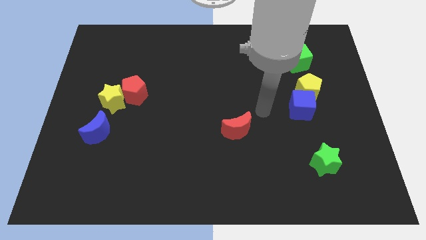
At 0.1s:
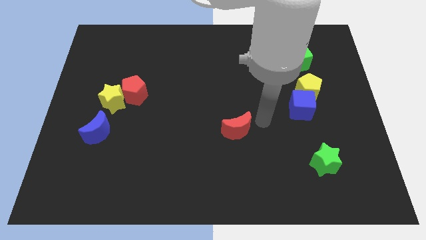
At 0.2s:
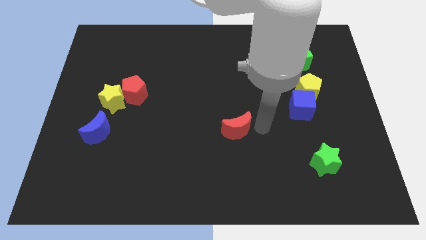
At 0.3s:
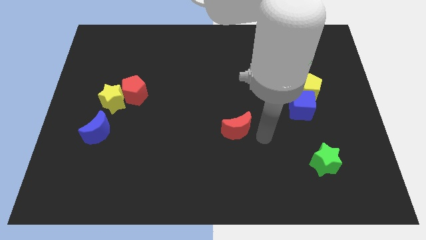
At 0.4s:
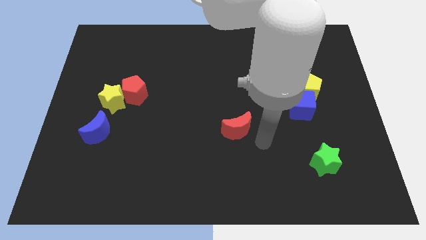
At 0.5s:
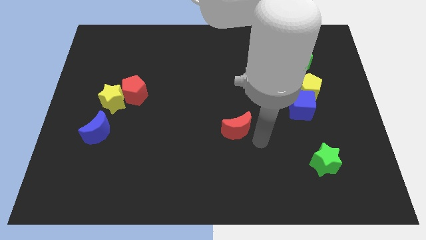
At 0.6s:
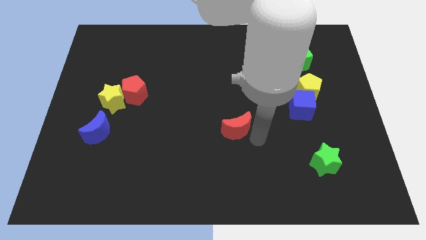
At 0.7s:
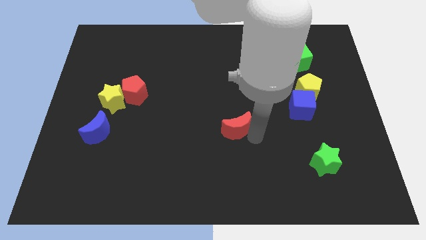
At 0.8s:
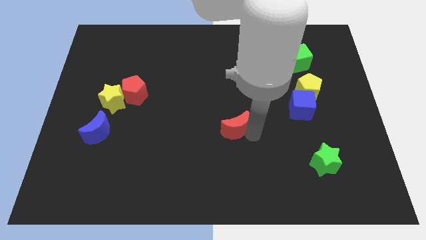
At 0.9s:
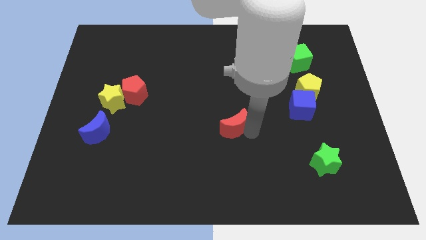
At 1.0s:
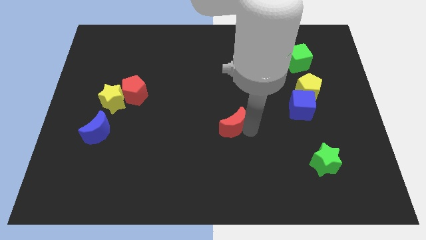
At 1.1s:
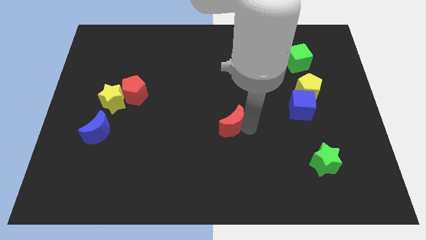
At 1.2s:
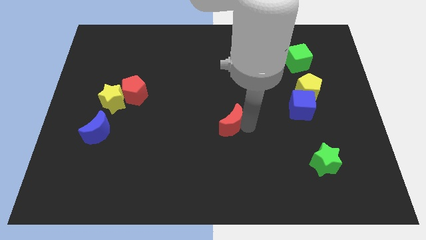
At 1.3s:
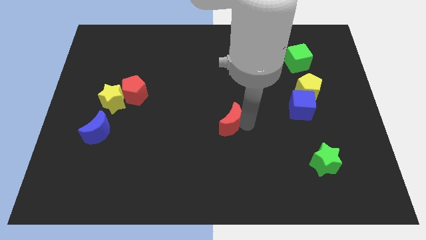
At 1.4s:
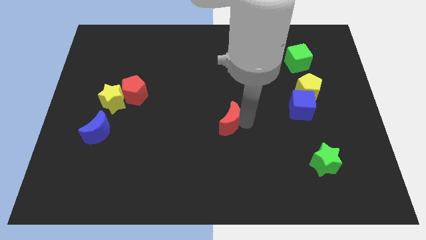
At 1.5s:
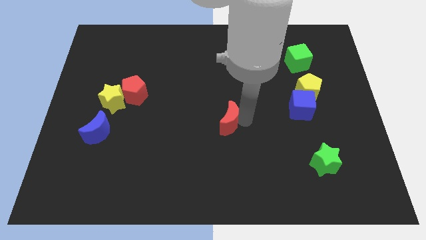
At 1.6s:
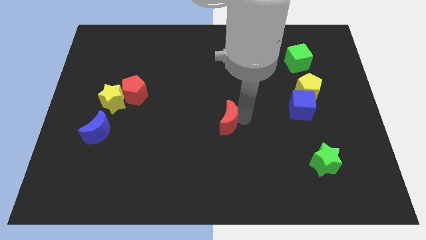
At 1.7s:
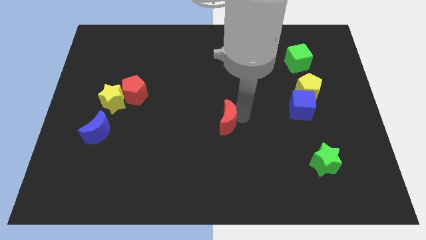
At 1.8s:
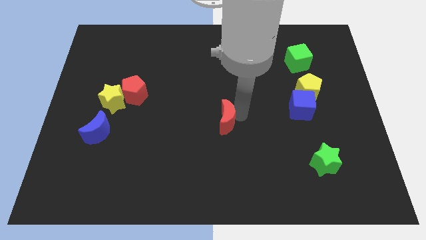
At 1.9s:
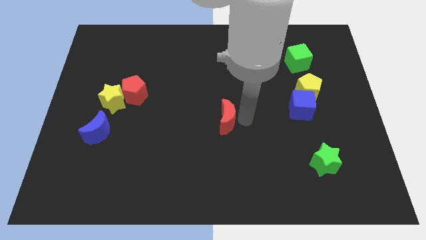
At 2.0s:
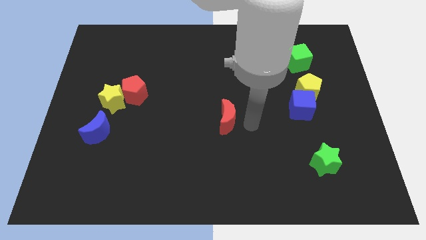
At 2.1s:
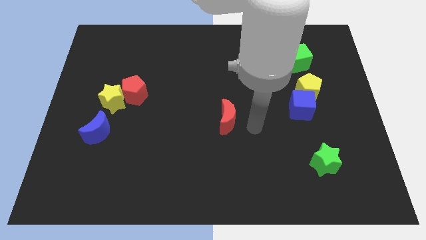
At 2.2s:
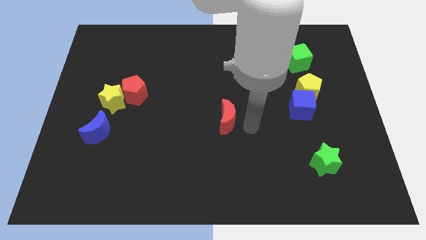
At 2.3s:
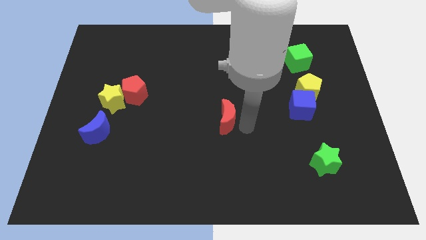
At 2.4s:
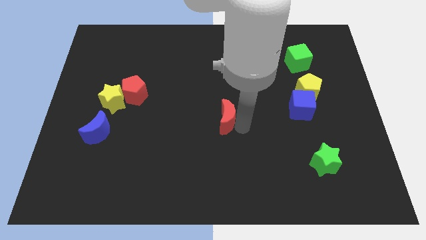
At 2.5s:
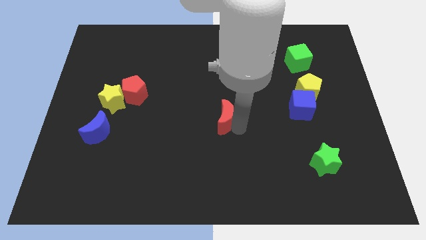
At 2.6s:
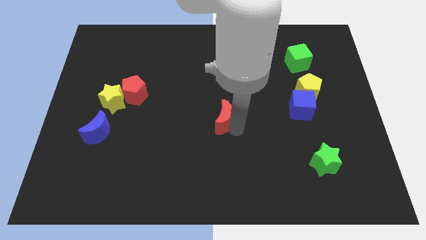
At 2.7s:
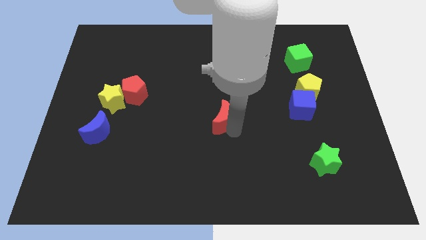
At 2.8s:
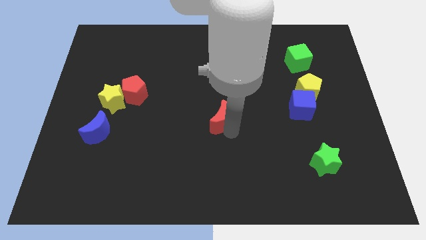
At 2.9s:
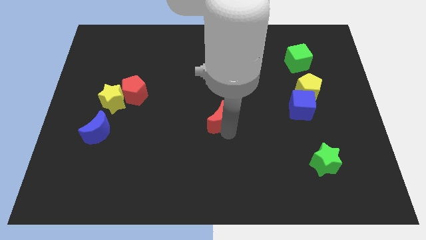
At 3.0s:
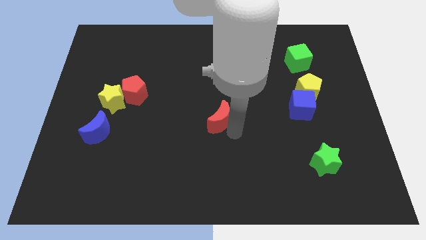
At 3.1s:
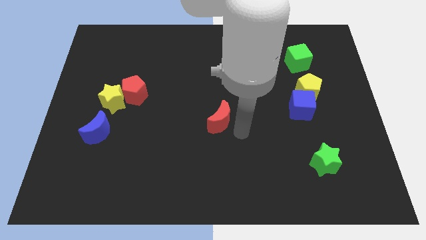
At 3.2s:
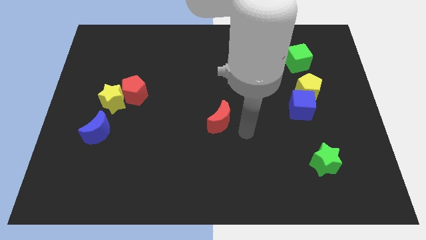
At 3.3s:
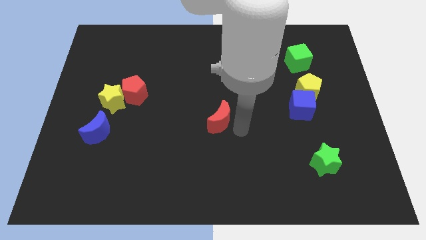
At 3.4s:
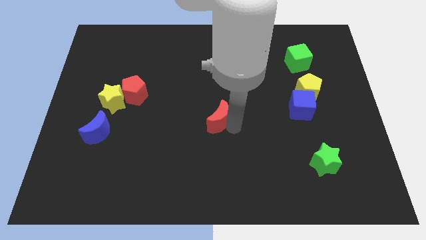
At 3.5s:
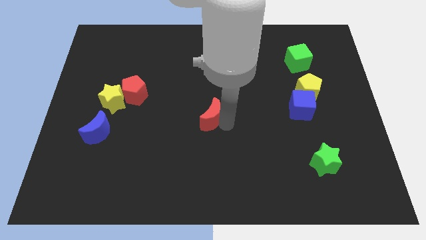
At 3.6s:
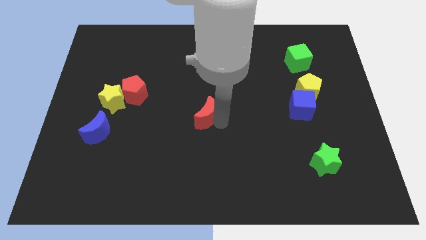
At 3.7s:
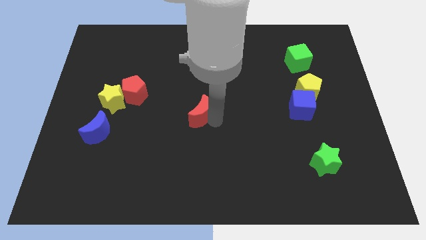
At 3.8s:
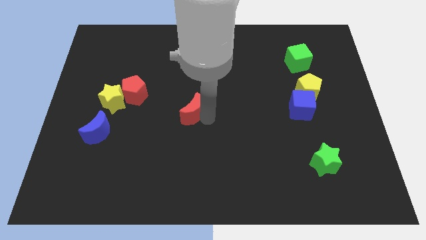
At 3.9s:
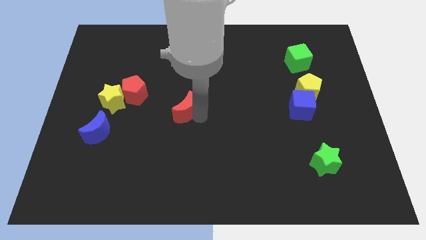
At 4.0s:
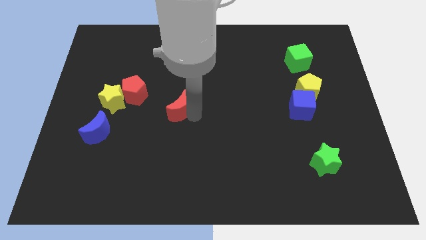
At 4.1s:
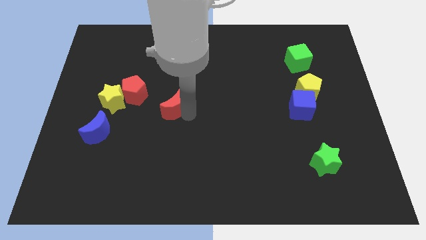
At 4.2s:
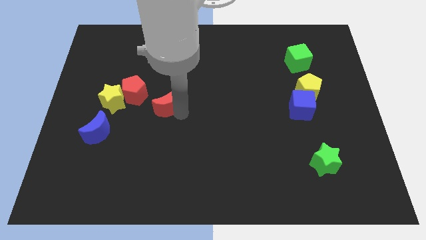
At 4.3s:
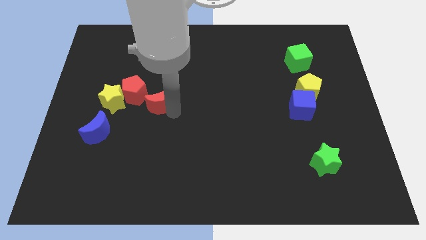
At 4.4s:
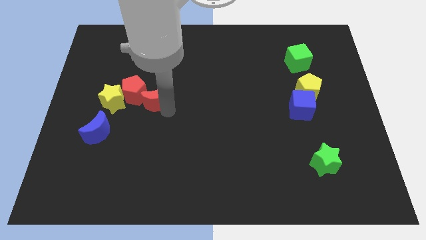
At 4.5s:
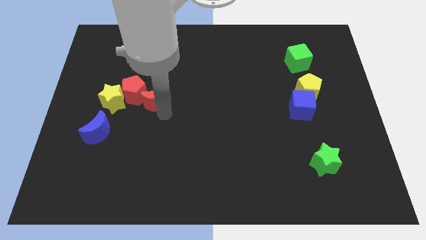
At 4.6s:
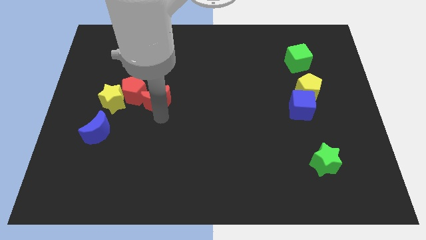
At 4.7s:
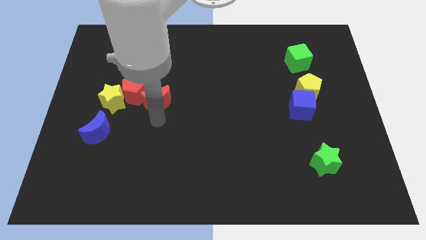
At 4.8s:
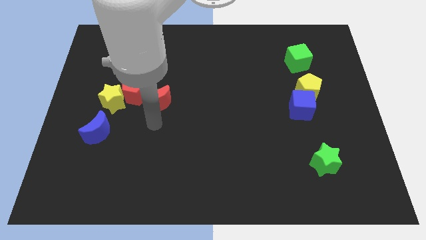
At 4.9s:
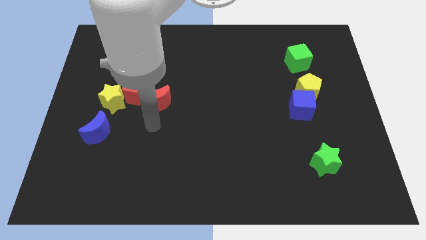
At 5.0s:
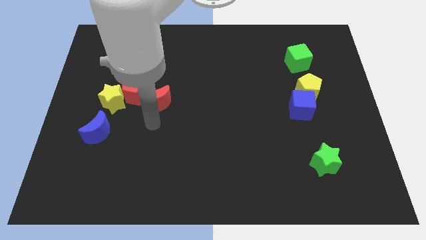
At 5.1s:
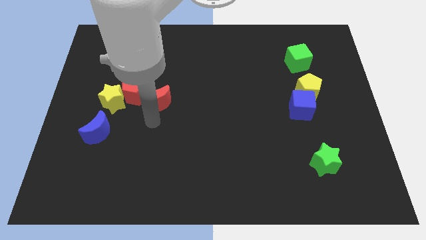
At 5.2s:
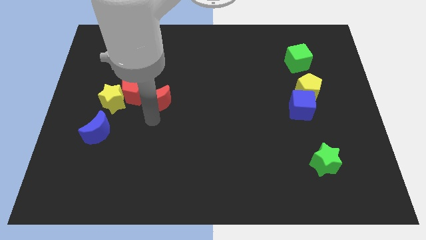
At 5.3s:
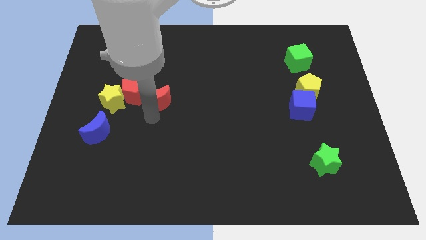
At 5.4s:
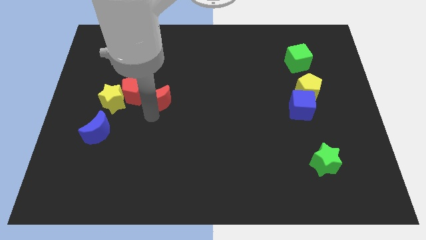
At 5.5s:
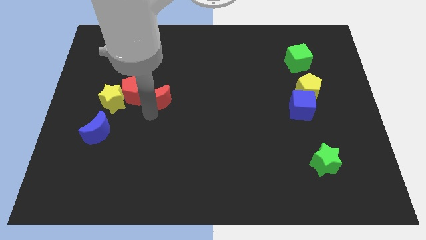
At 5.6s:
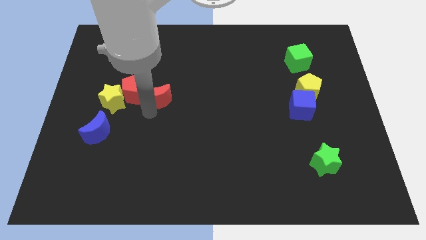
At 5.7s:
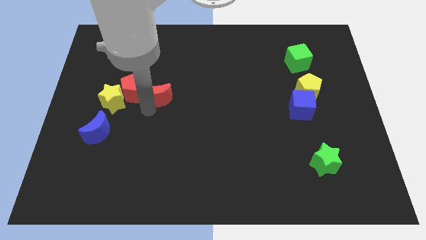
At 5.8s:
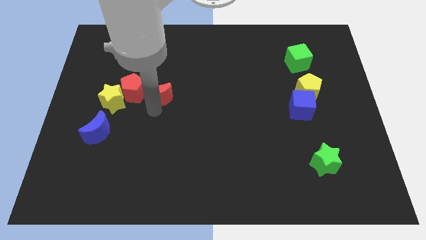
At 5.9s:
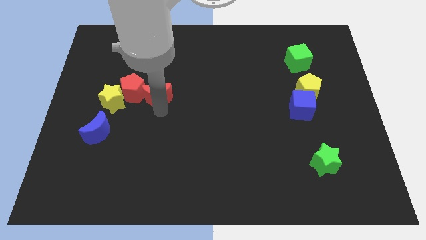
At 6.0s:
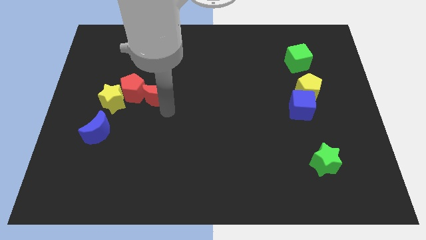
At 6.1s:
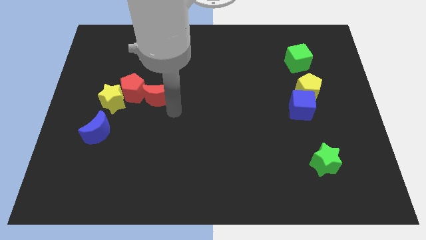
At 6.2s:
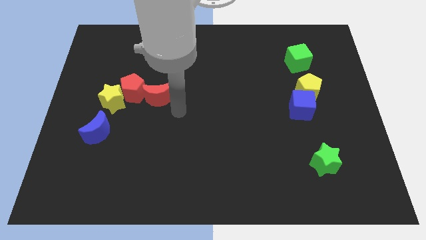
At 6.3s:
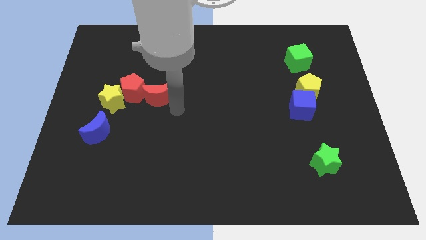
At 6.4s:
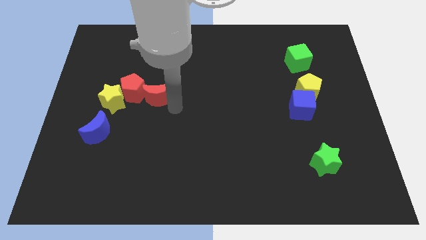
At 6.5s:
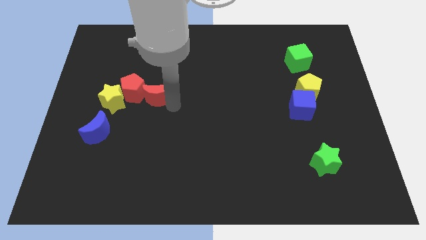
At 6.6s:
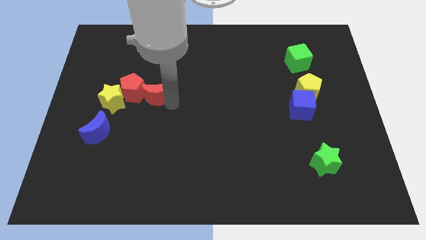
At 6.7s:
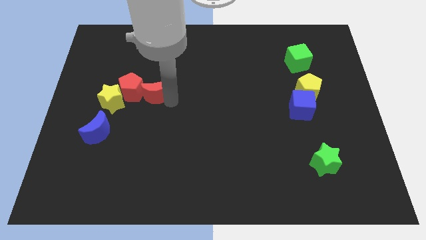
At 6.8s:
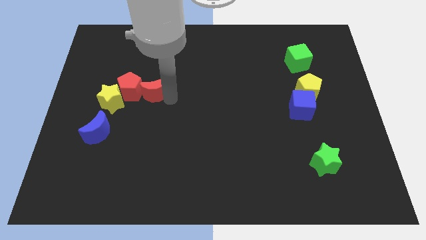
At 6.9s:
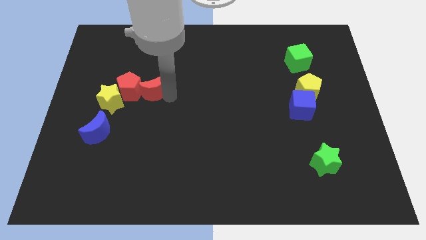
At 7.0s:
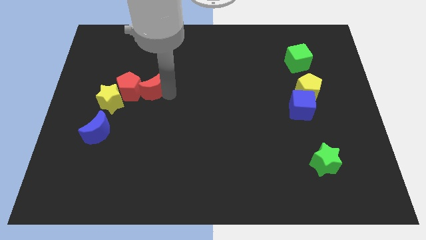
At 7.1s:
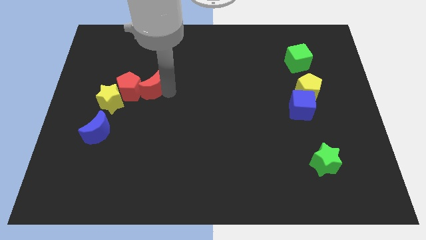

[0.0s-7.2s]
slide the red moon to the top right side of the yellow star
